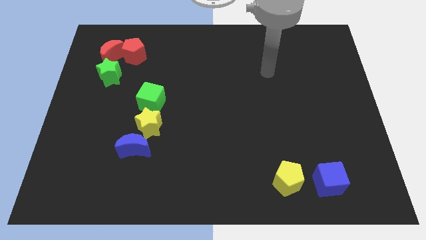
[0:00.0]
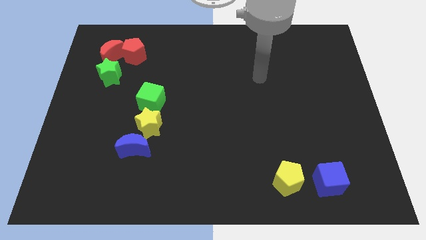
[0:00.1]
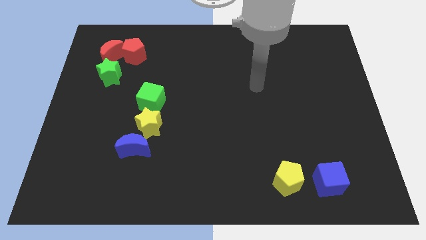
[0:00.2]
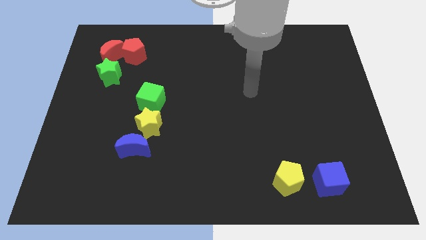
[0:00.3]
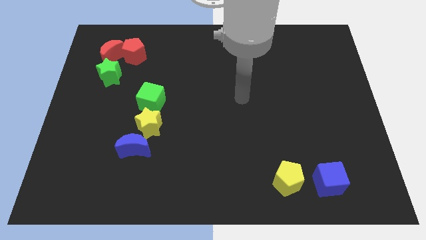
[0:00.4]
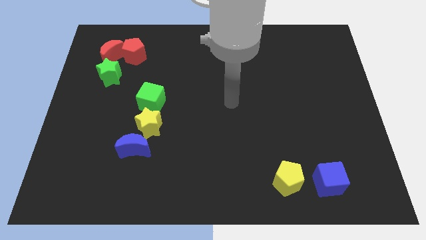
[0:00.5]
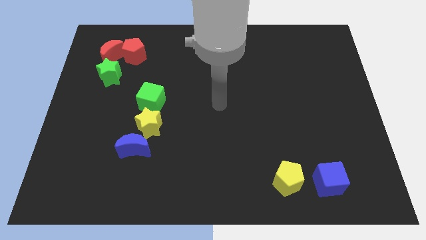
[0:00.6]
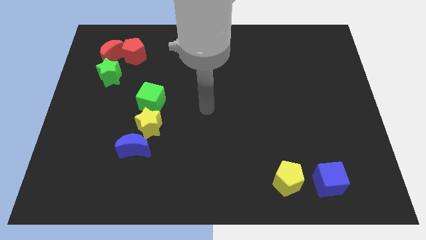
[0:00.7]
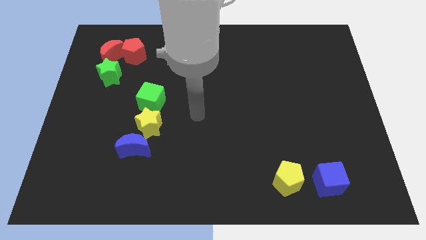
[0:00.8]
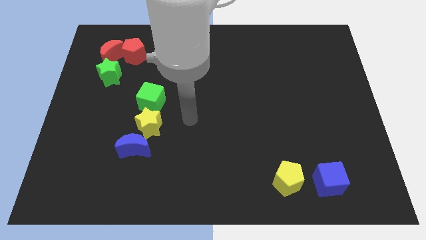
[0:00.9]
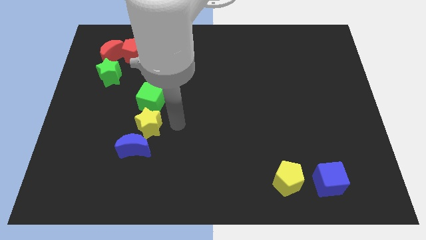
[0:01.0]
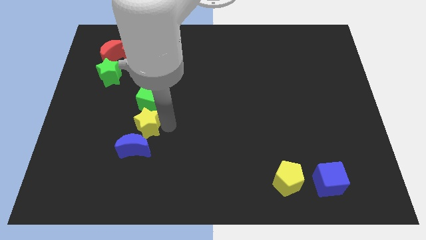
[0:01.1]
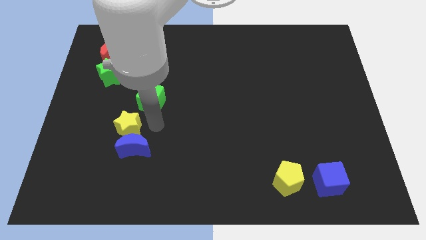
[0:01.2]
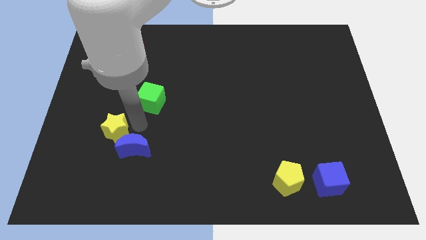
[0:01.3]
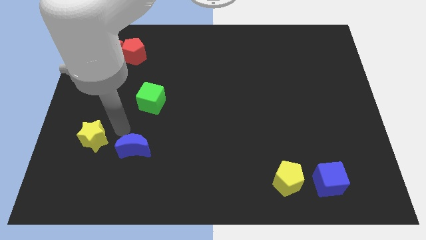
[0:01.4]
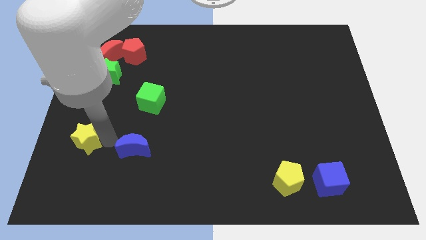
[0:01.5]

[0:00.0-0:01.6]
move the blue moon away from the yellow star

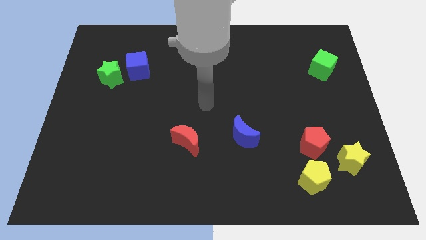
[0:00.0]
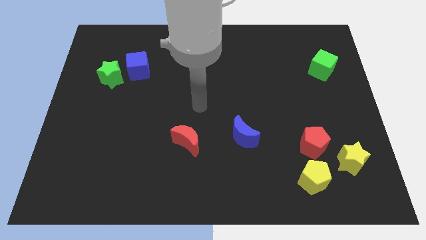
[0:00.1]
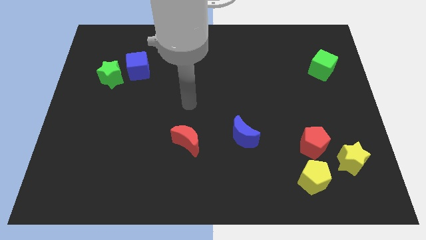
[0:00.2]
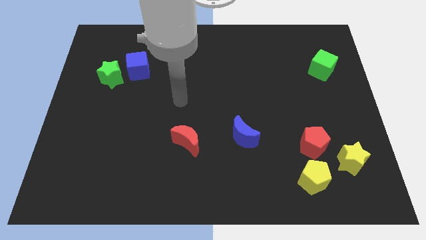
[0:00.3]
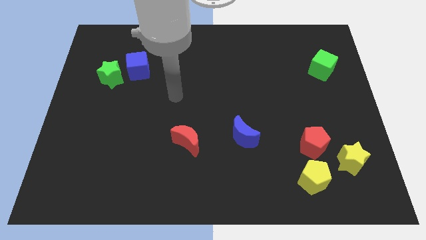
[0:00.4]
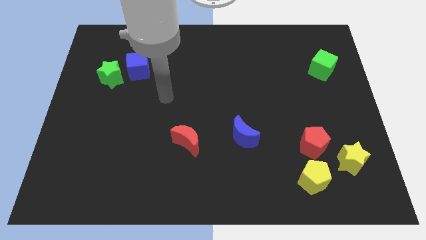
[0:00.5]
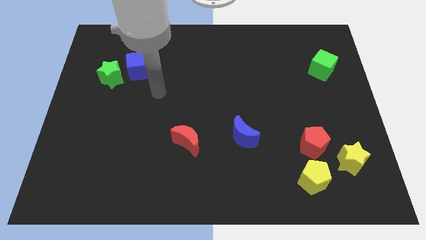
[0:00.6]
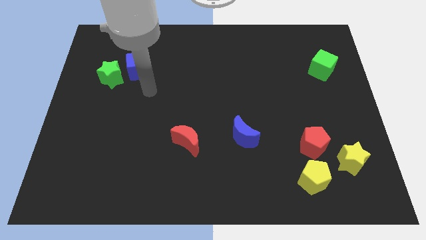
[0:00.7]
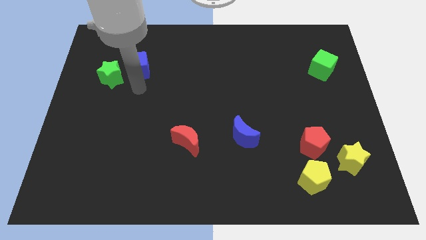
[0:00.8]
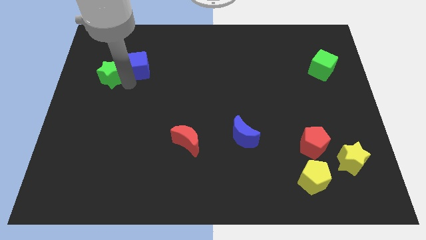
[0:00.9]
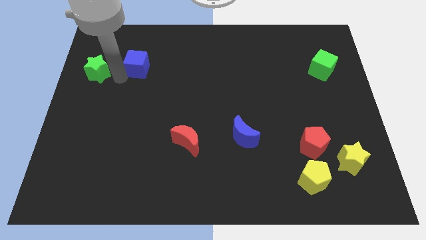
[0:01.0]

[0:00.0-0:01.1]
separate the blue cube from the green star

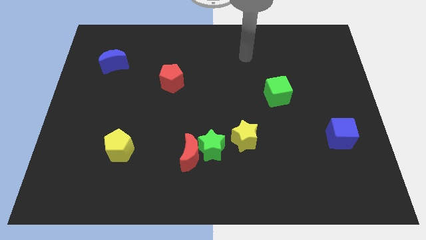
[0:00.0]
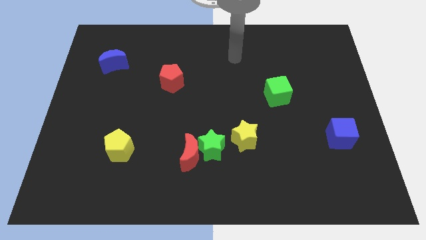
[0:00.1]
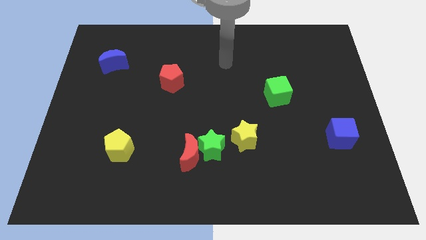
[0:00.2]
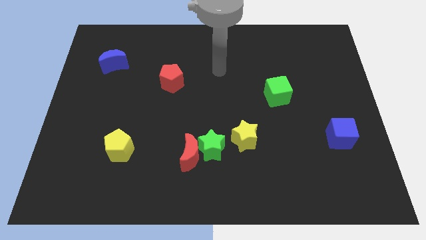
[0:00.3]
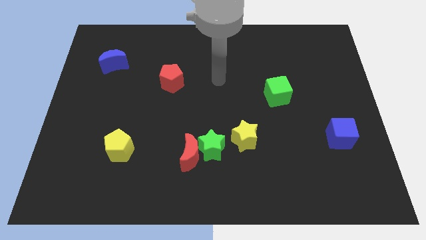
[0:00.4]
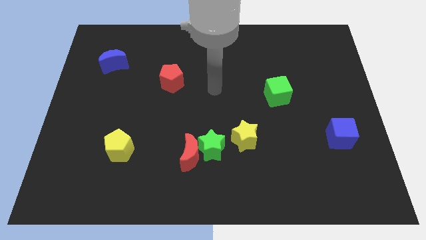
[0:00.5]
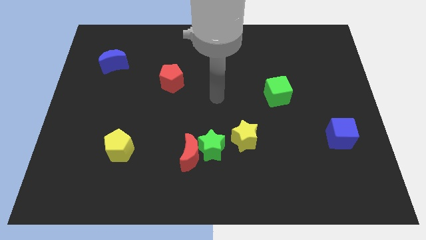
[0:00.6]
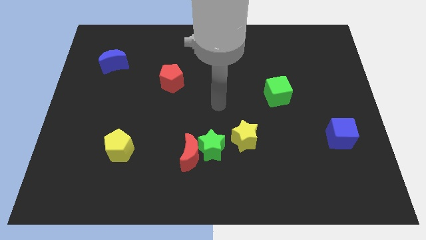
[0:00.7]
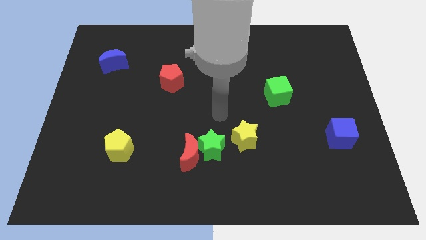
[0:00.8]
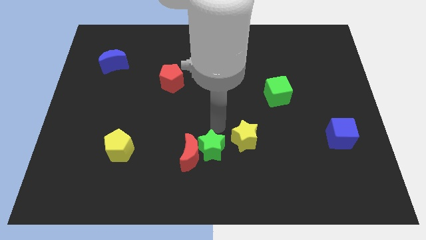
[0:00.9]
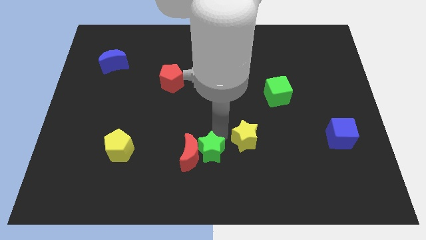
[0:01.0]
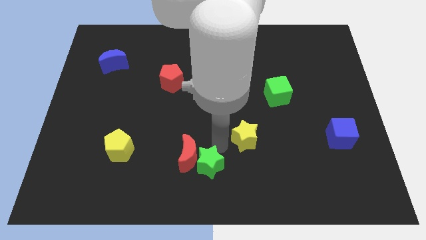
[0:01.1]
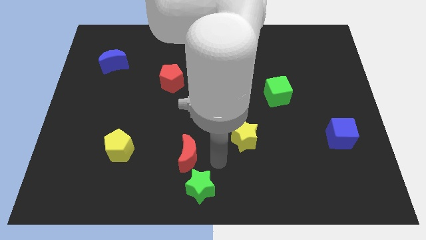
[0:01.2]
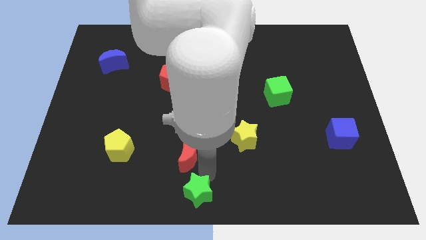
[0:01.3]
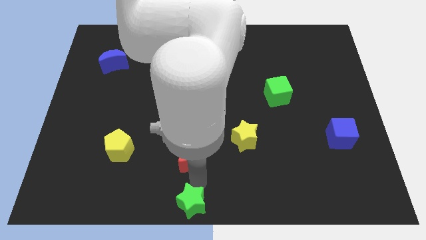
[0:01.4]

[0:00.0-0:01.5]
pull the red moon apart from the green star

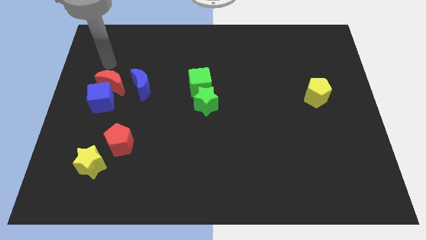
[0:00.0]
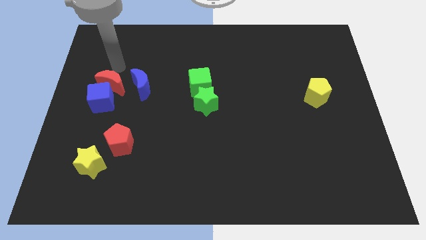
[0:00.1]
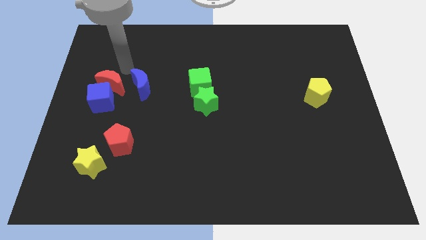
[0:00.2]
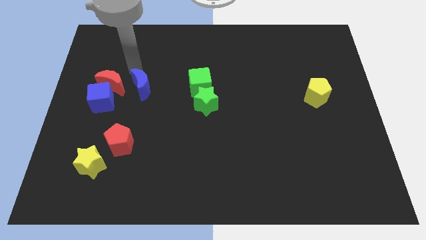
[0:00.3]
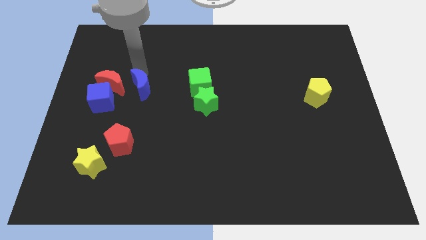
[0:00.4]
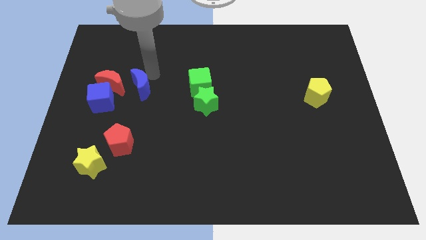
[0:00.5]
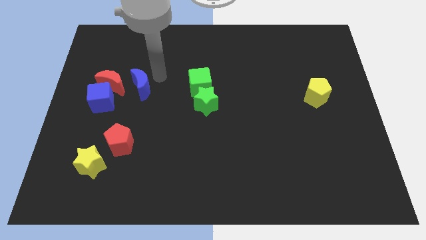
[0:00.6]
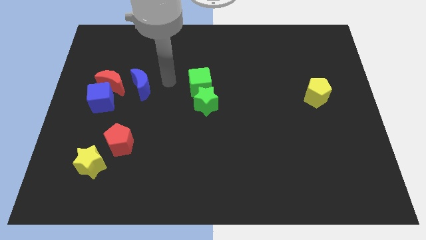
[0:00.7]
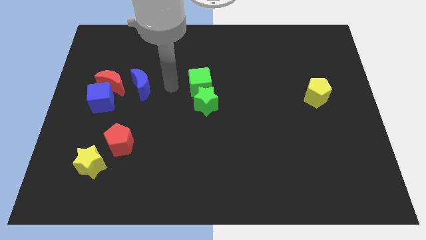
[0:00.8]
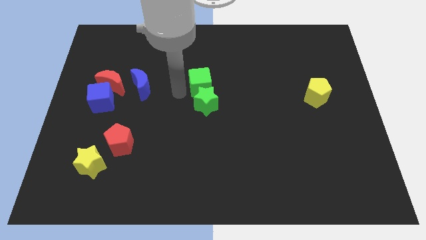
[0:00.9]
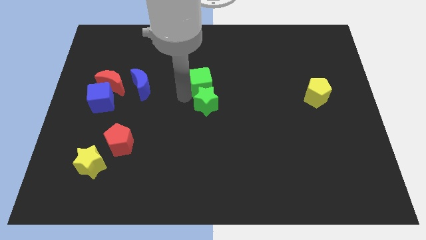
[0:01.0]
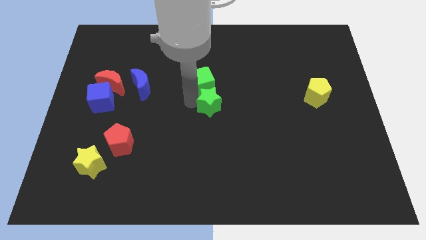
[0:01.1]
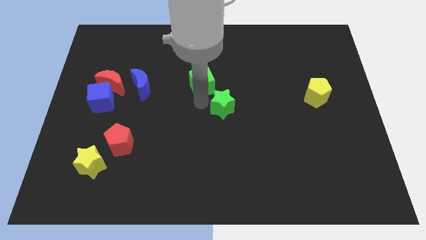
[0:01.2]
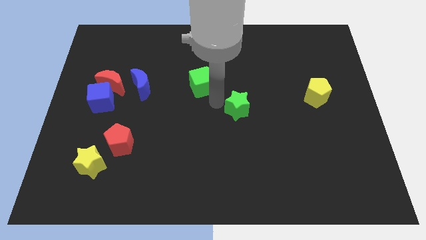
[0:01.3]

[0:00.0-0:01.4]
pull the green cube apart from the green star

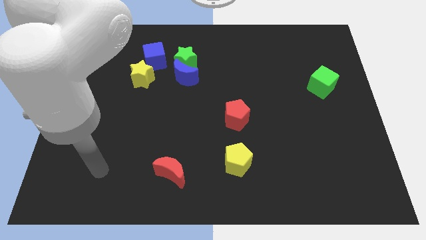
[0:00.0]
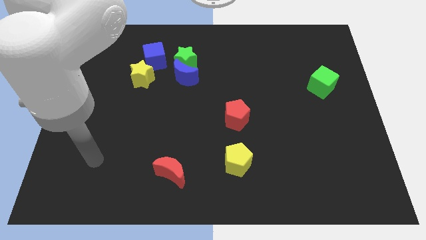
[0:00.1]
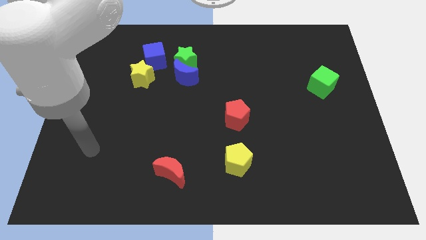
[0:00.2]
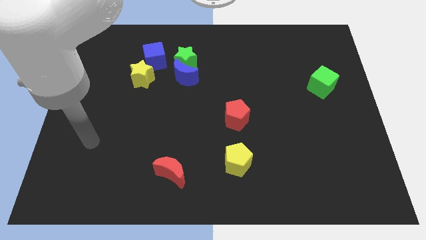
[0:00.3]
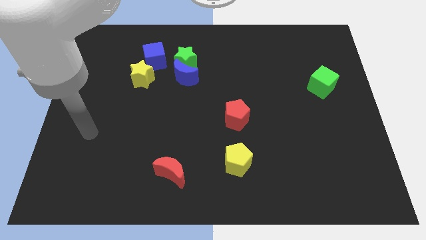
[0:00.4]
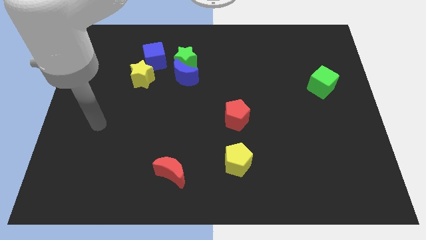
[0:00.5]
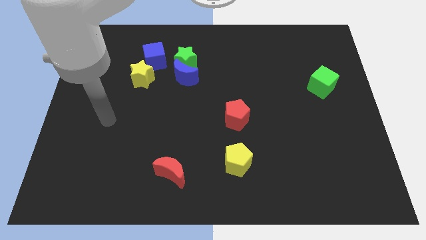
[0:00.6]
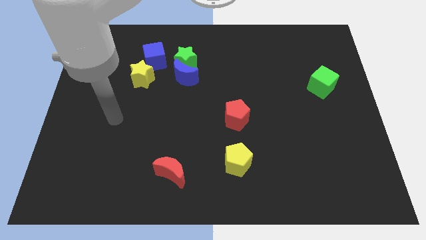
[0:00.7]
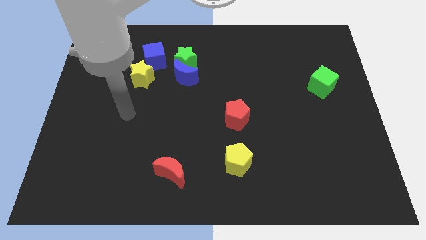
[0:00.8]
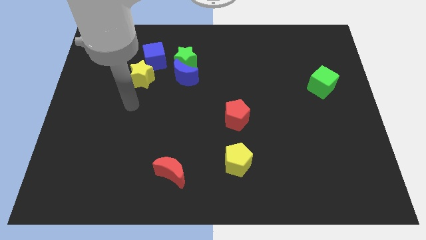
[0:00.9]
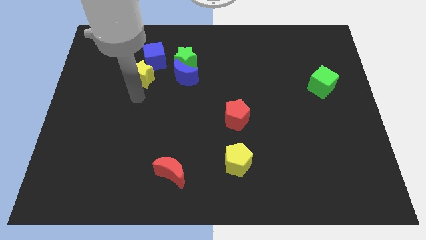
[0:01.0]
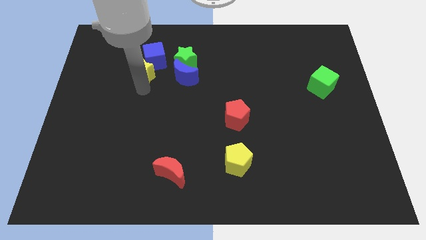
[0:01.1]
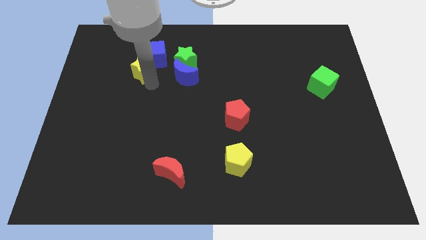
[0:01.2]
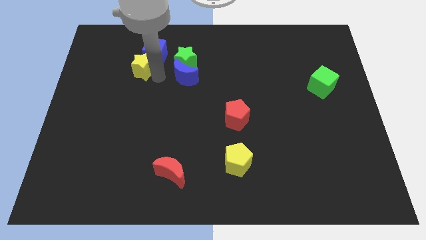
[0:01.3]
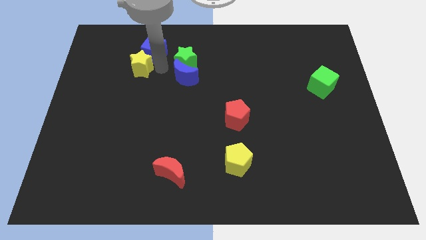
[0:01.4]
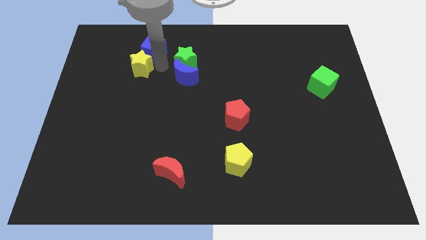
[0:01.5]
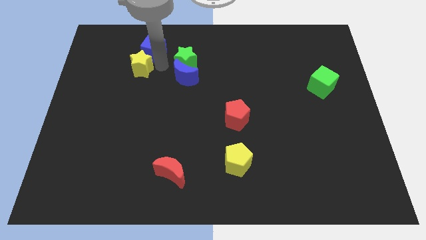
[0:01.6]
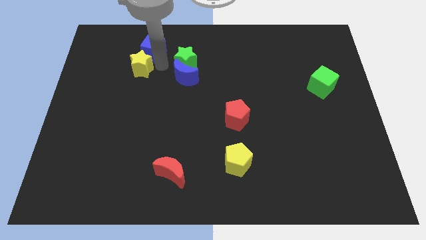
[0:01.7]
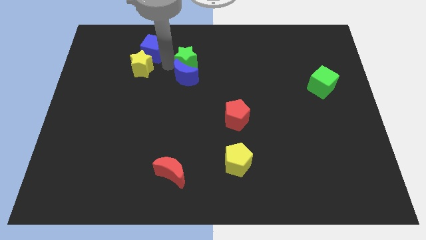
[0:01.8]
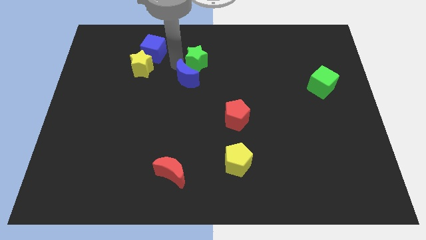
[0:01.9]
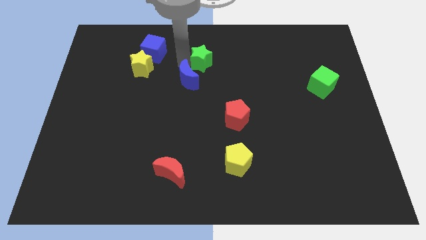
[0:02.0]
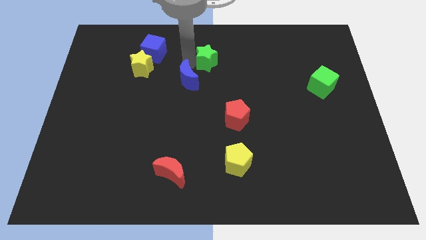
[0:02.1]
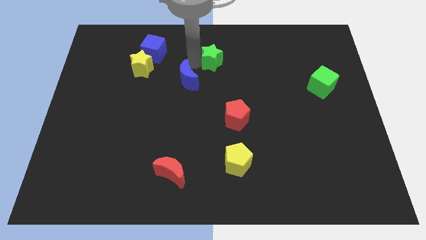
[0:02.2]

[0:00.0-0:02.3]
pull the green star apart from the blue moon and blue cube

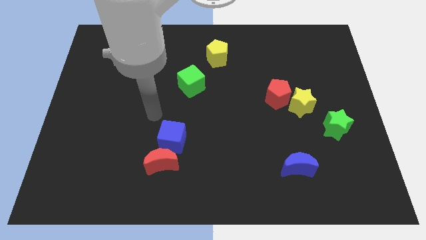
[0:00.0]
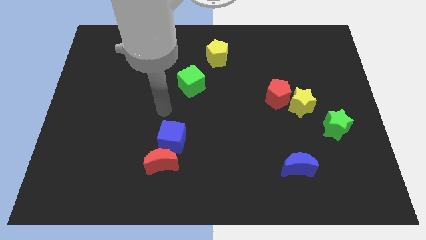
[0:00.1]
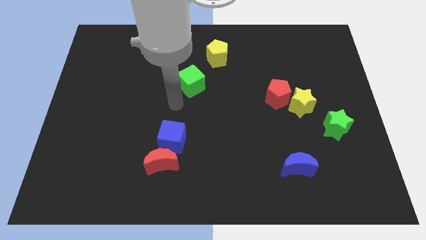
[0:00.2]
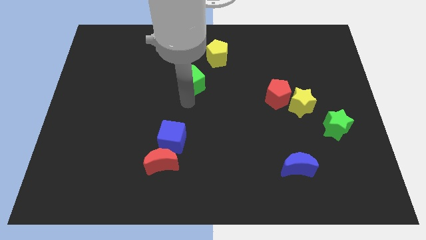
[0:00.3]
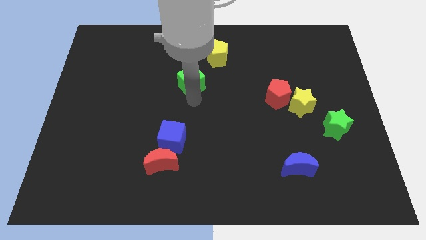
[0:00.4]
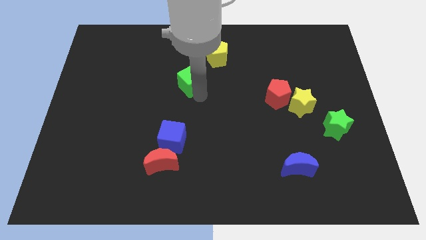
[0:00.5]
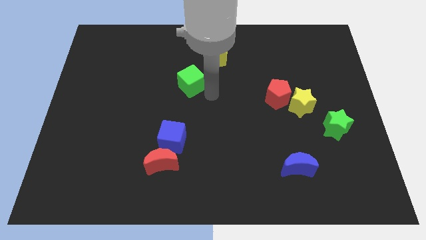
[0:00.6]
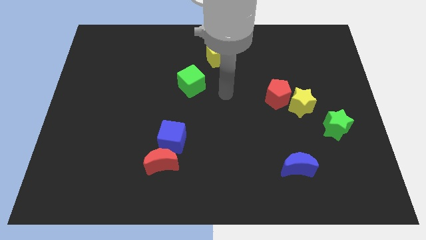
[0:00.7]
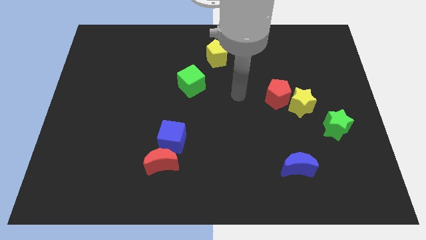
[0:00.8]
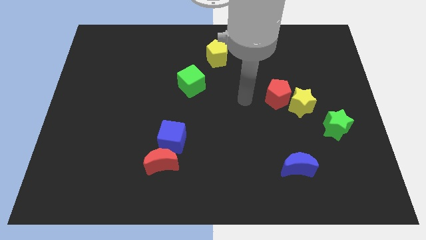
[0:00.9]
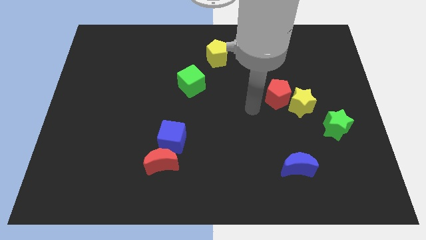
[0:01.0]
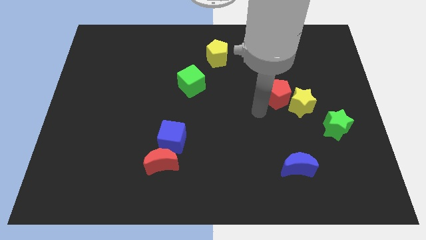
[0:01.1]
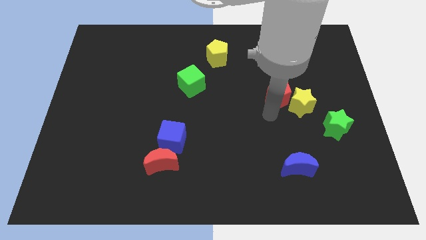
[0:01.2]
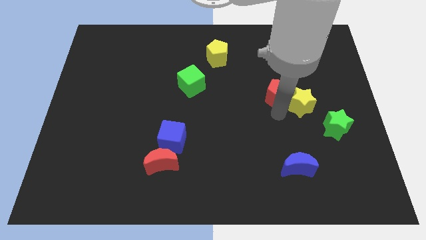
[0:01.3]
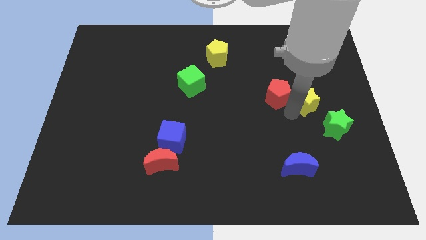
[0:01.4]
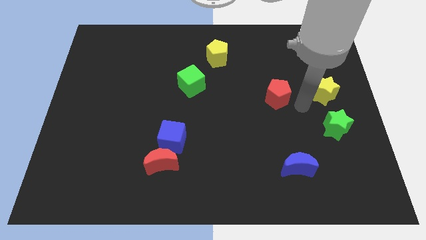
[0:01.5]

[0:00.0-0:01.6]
move the red pentagon away from the yellow star
